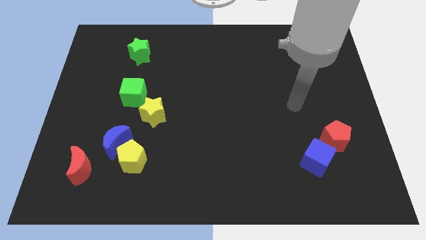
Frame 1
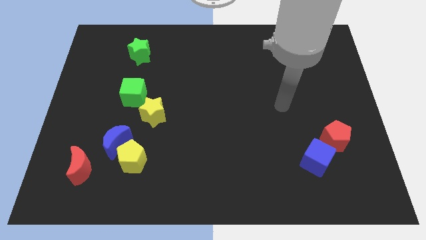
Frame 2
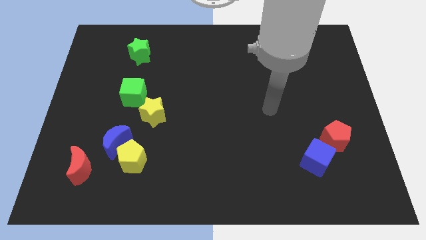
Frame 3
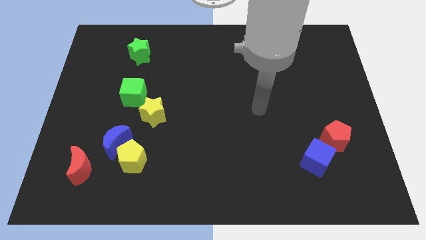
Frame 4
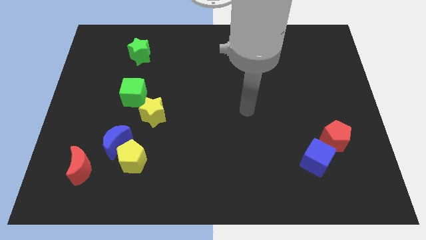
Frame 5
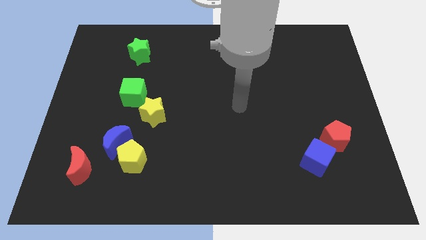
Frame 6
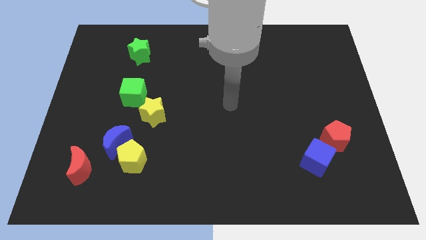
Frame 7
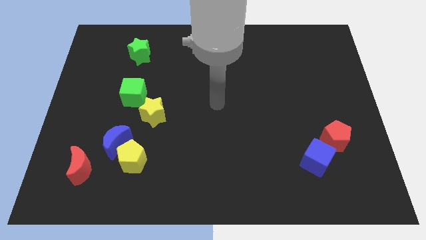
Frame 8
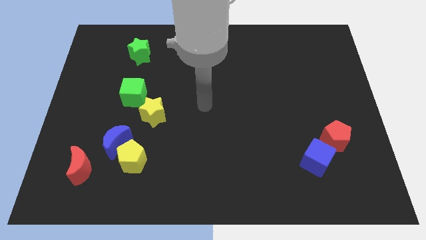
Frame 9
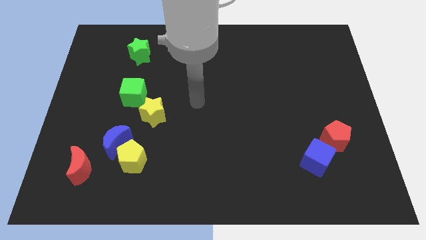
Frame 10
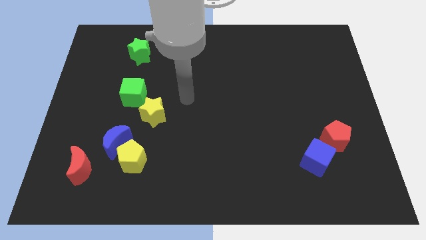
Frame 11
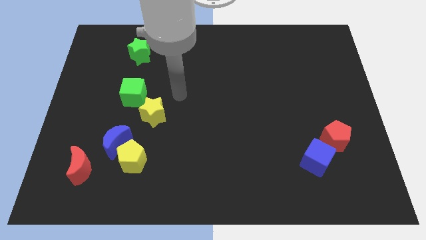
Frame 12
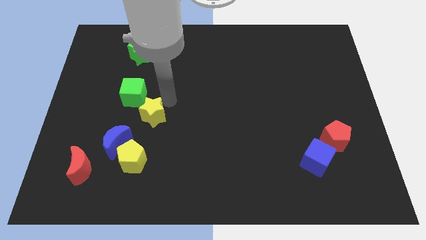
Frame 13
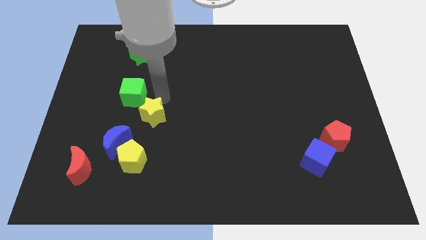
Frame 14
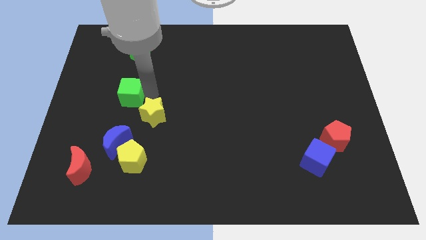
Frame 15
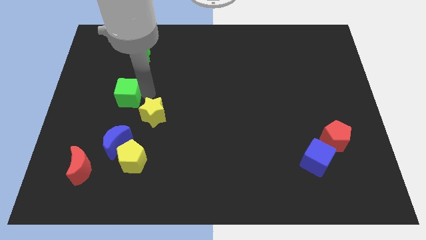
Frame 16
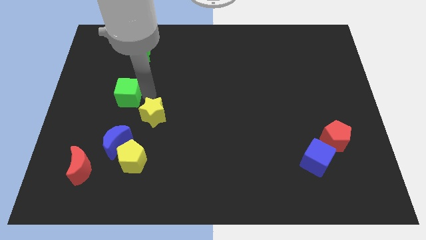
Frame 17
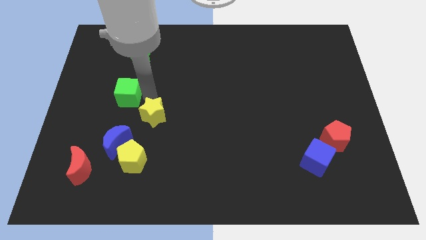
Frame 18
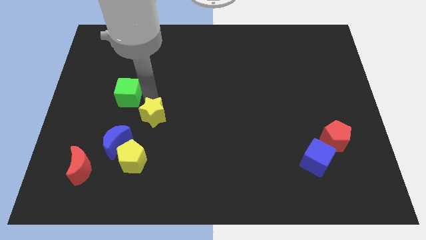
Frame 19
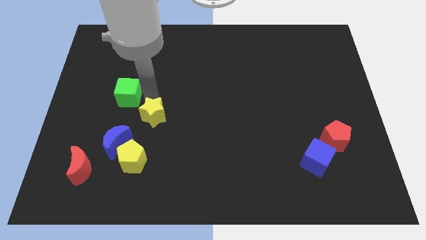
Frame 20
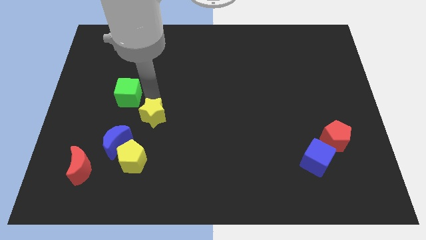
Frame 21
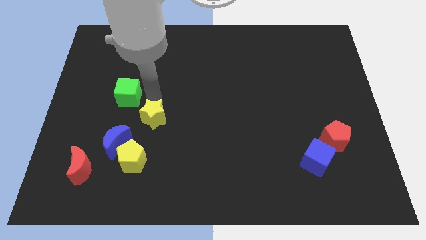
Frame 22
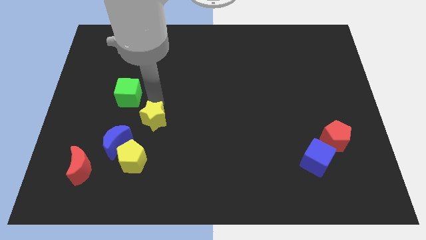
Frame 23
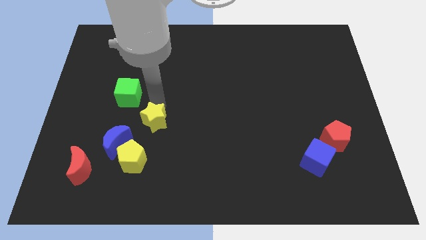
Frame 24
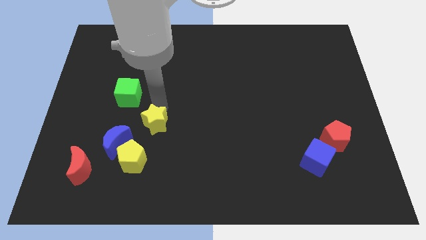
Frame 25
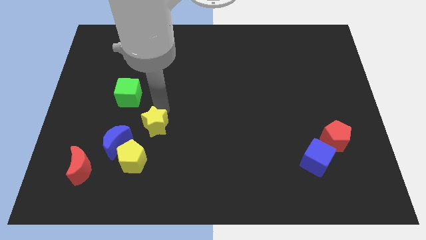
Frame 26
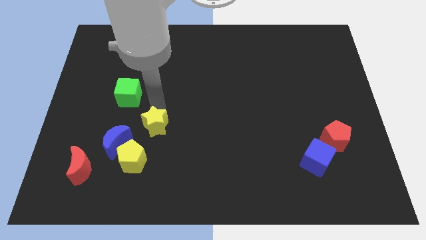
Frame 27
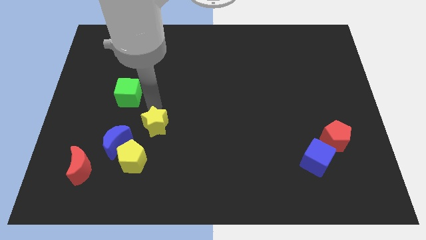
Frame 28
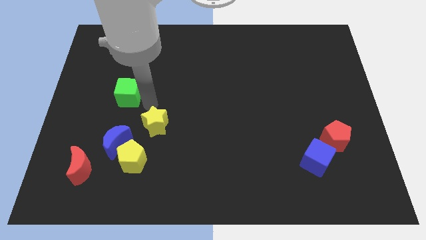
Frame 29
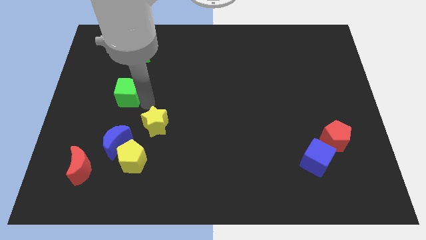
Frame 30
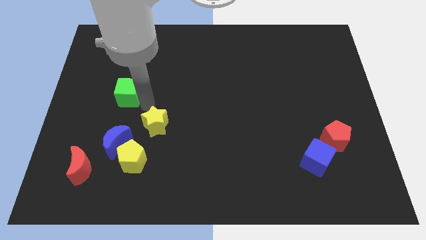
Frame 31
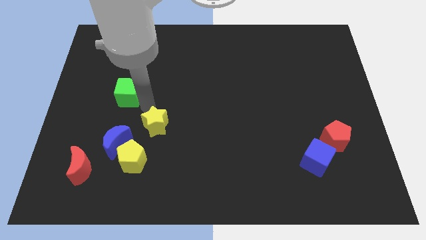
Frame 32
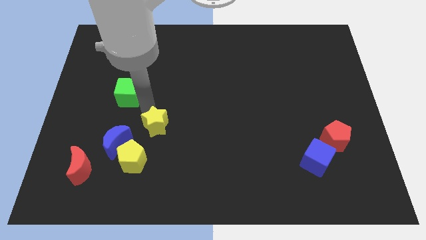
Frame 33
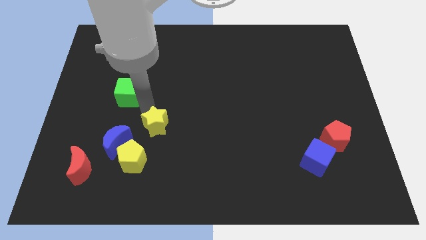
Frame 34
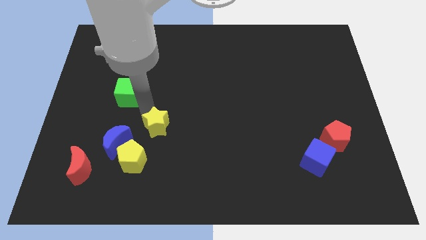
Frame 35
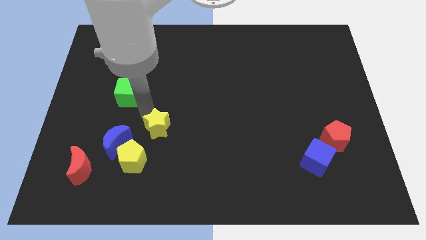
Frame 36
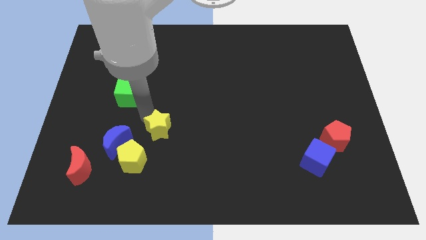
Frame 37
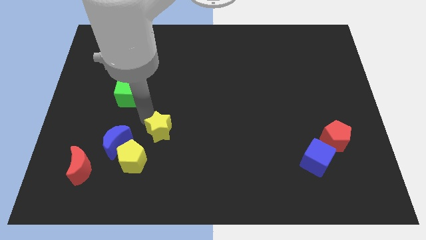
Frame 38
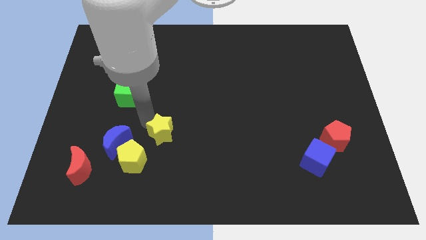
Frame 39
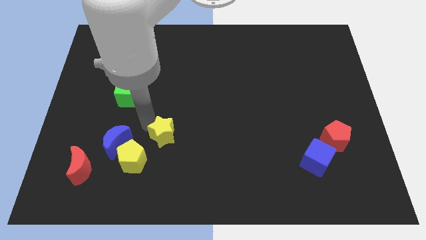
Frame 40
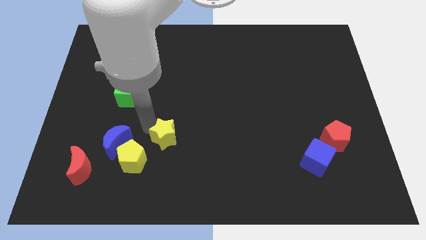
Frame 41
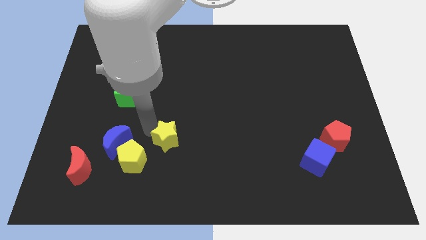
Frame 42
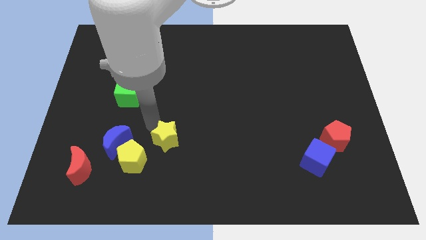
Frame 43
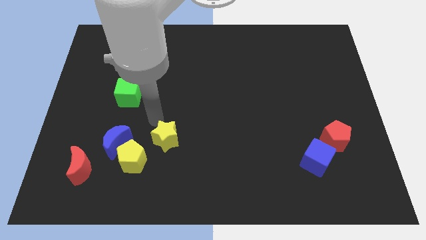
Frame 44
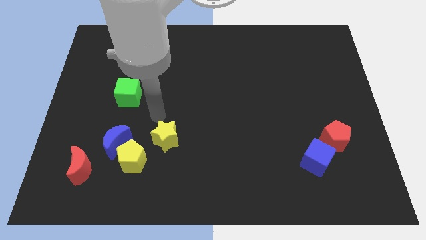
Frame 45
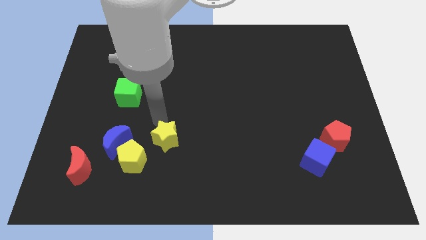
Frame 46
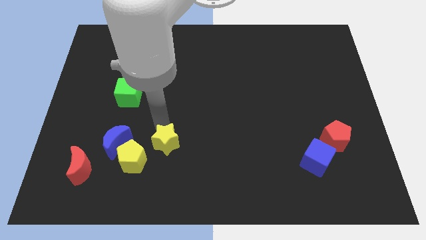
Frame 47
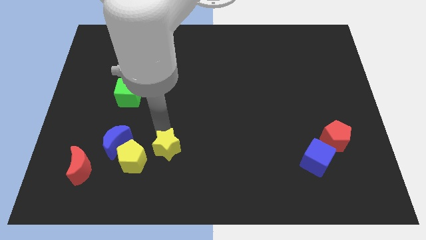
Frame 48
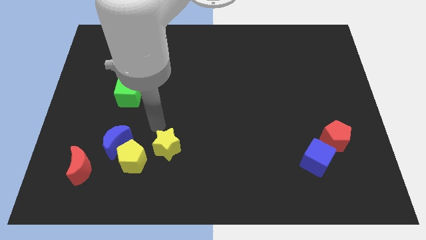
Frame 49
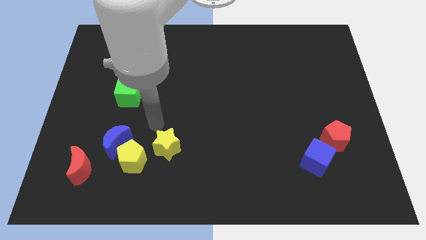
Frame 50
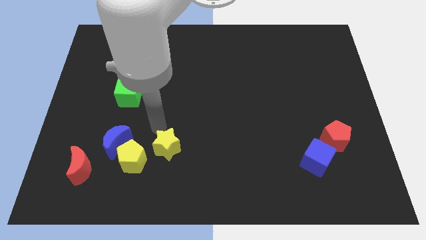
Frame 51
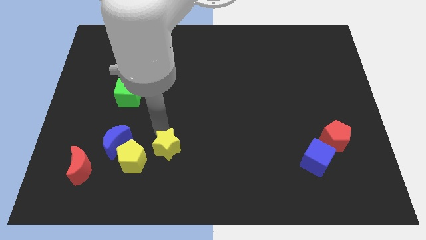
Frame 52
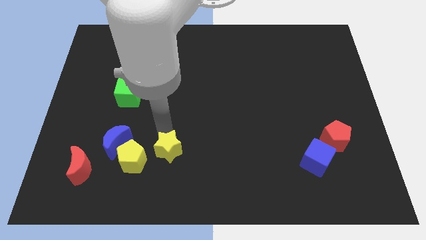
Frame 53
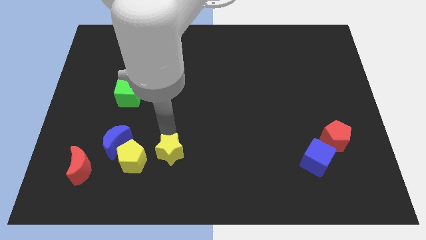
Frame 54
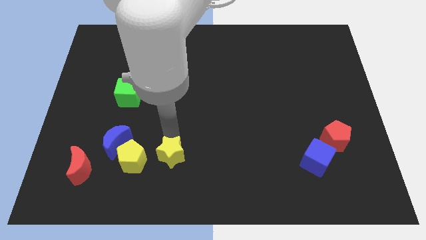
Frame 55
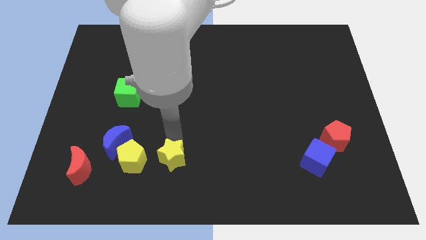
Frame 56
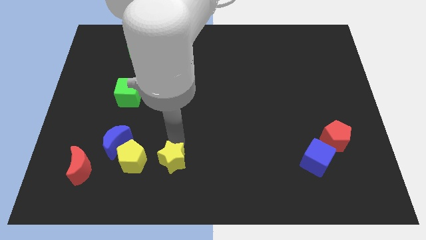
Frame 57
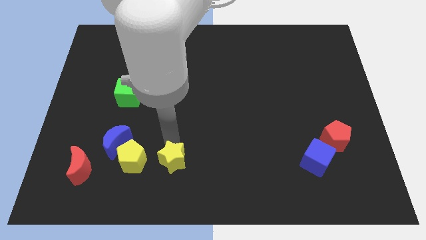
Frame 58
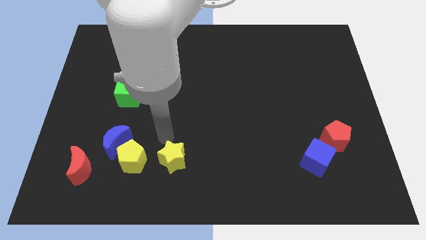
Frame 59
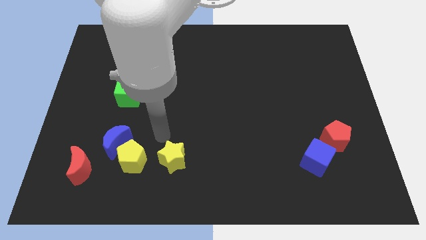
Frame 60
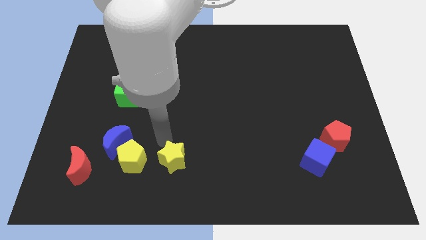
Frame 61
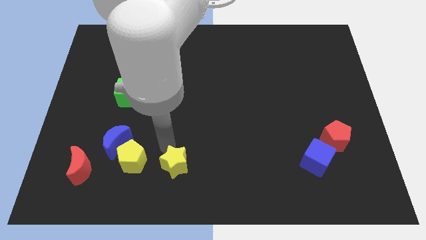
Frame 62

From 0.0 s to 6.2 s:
push the yellow star to the bottom side

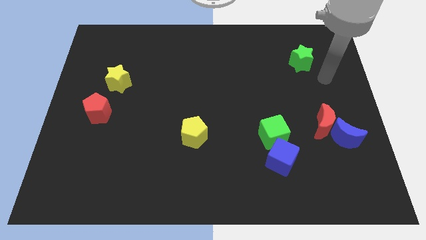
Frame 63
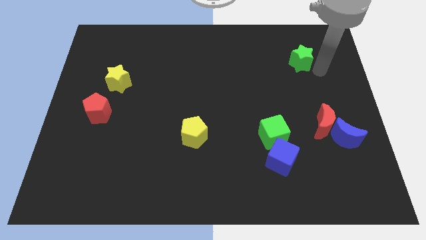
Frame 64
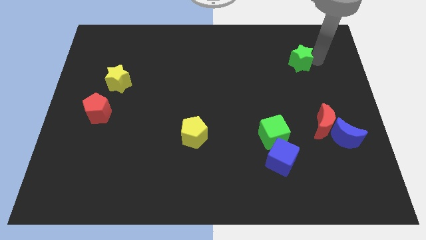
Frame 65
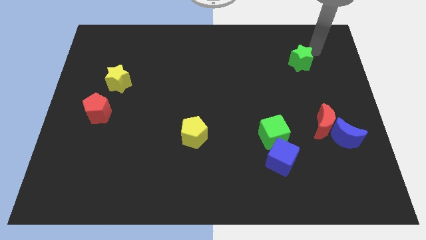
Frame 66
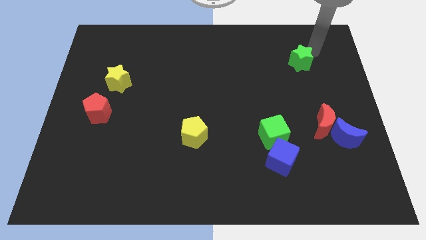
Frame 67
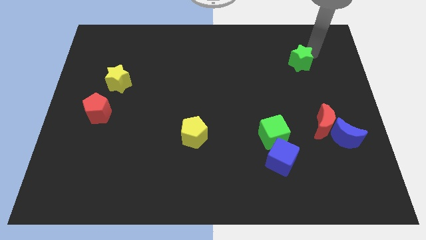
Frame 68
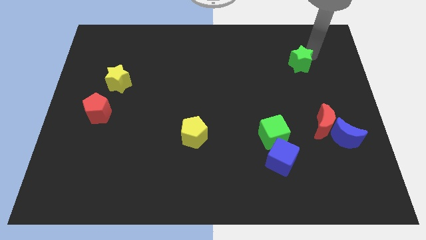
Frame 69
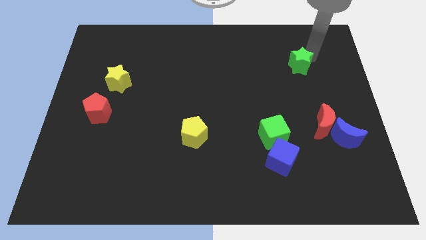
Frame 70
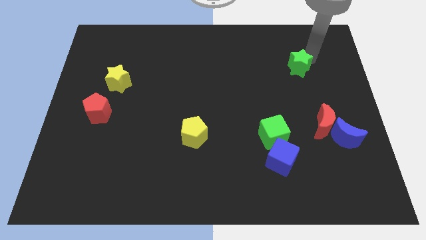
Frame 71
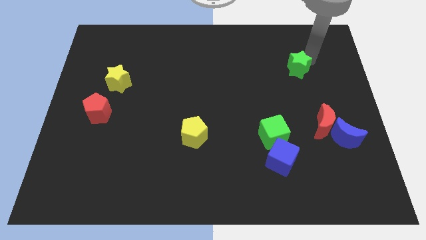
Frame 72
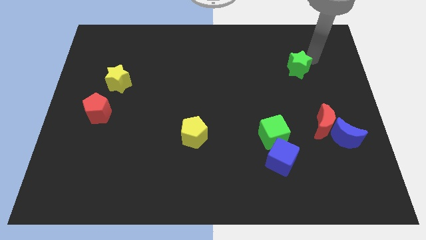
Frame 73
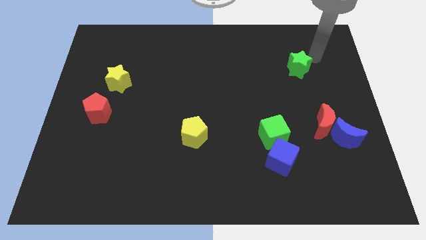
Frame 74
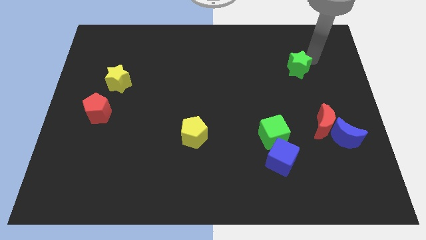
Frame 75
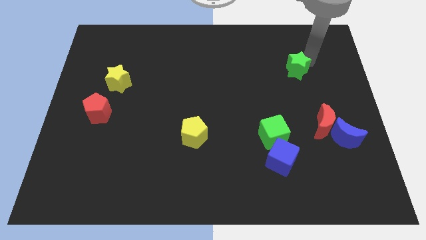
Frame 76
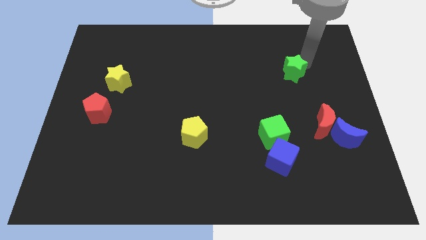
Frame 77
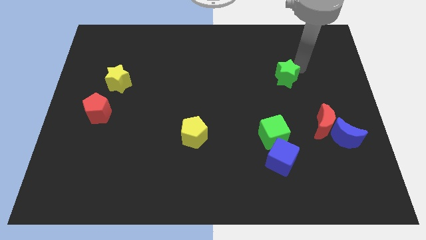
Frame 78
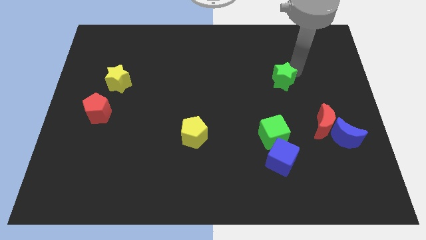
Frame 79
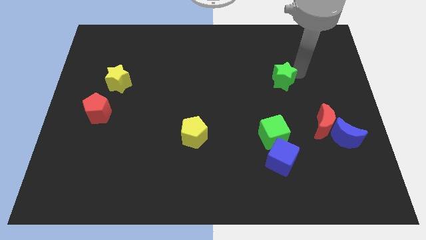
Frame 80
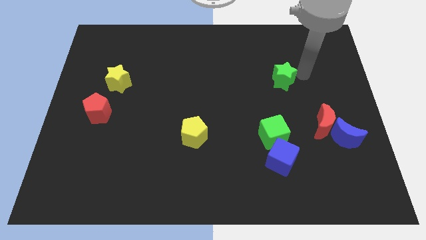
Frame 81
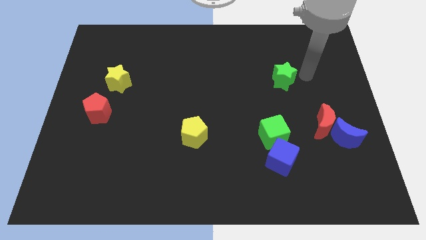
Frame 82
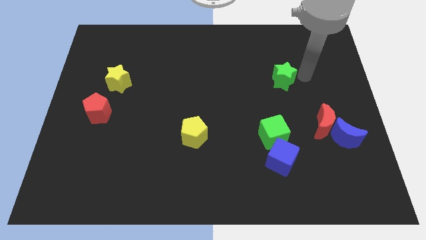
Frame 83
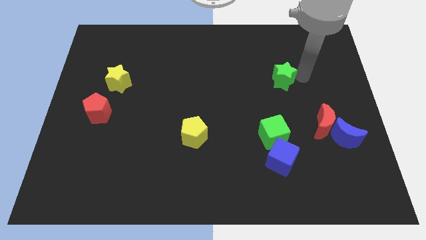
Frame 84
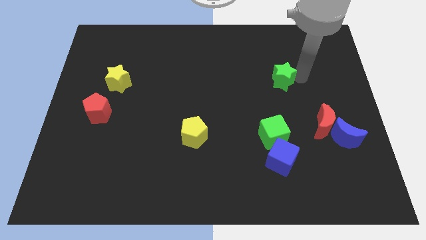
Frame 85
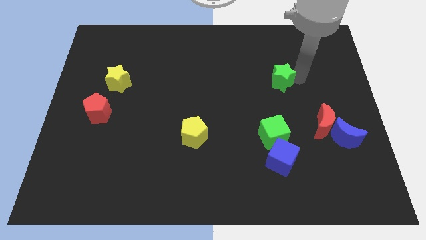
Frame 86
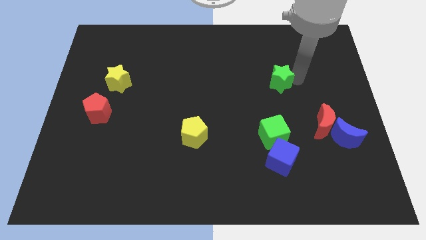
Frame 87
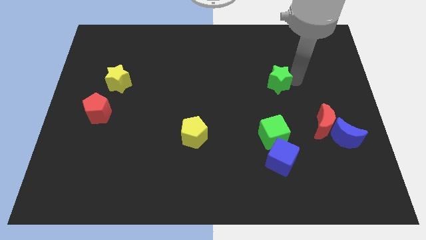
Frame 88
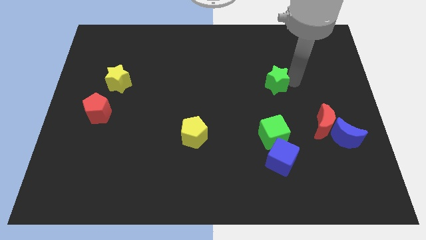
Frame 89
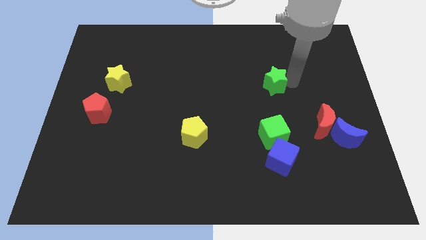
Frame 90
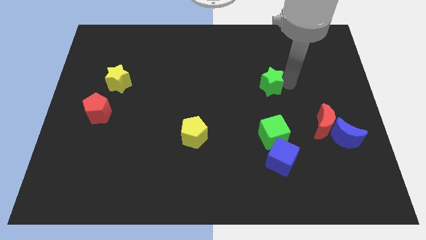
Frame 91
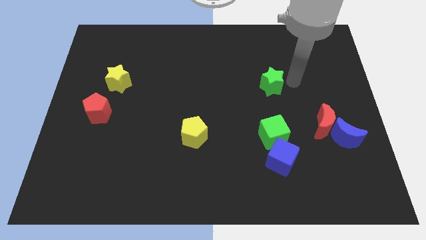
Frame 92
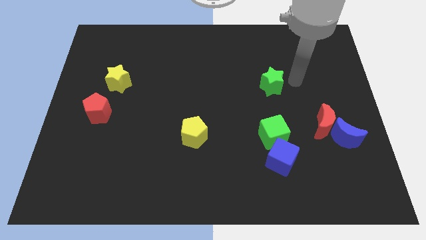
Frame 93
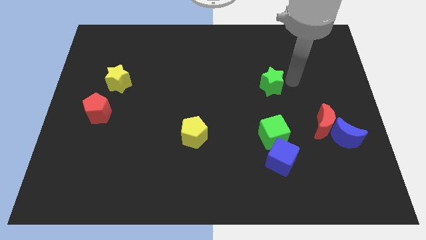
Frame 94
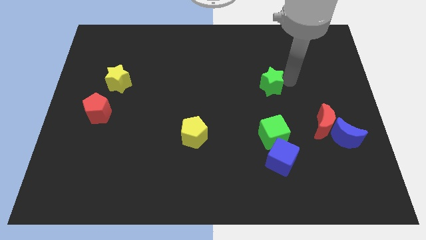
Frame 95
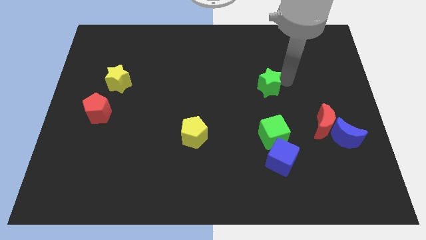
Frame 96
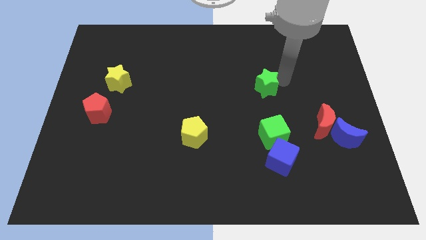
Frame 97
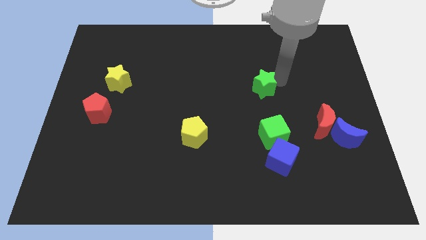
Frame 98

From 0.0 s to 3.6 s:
put the green star to the center of the board
